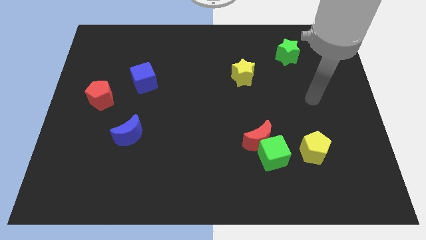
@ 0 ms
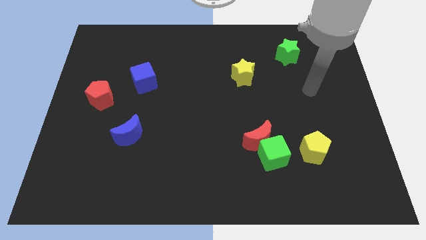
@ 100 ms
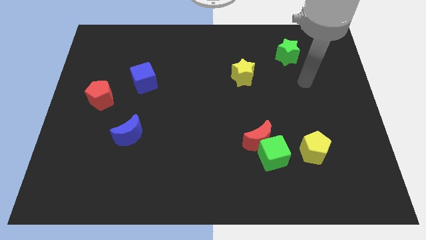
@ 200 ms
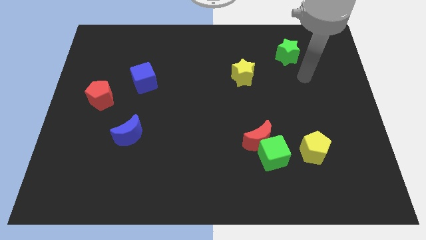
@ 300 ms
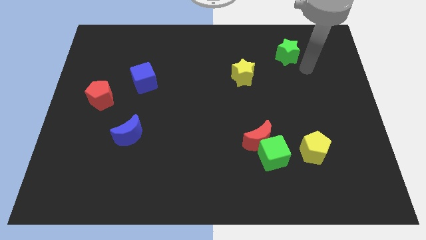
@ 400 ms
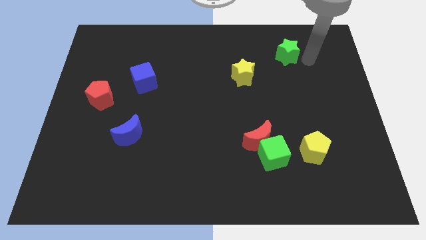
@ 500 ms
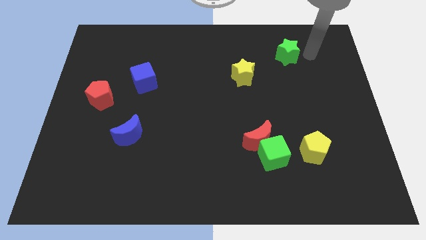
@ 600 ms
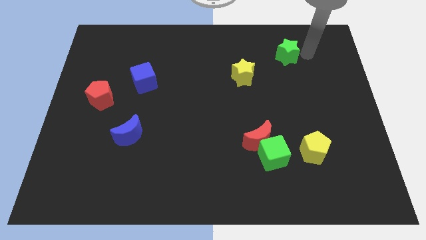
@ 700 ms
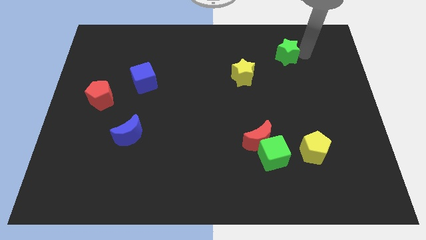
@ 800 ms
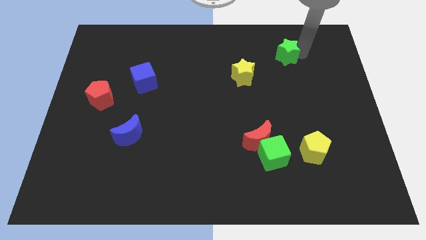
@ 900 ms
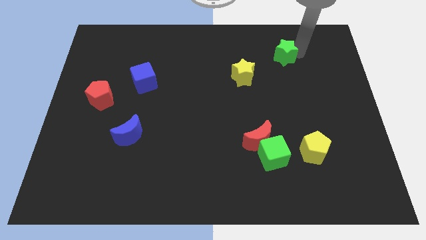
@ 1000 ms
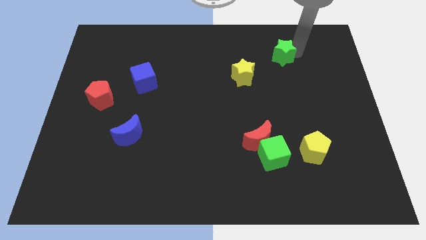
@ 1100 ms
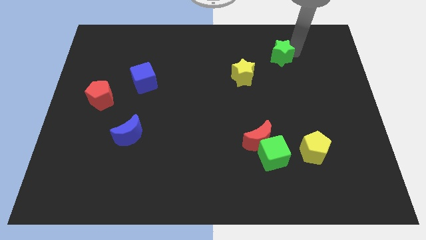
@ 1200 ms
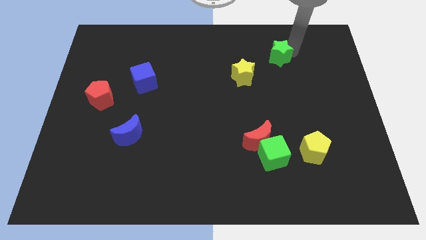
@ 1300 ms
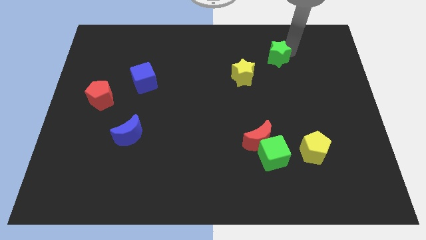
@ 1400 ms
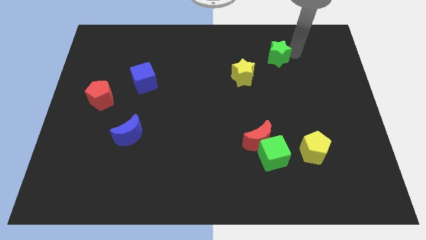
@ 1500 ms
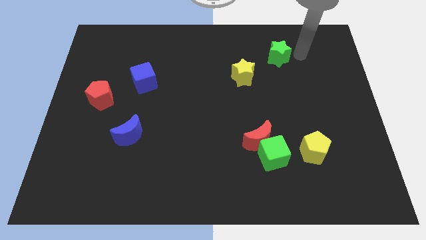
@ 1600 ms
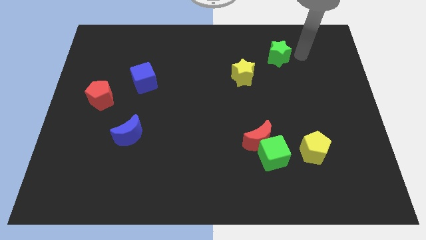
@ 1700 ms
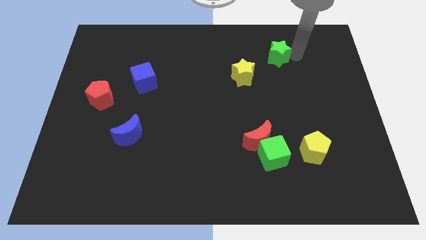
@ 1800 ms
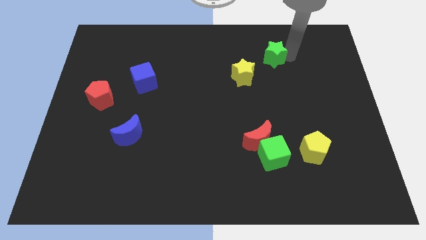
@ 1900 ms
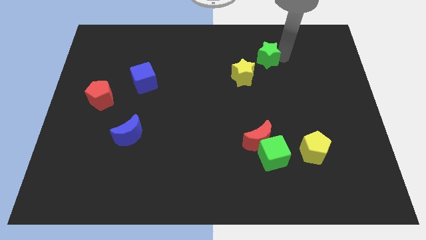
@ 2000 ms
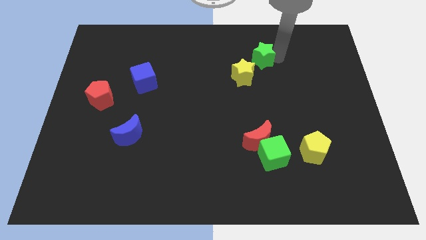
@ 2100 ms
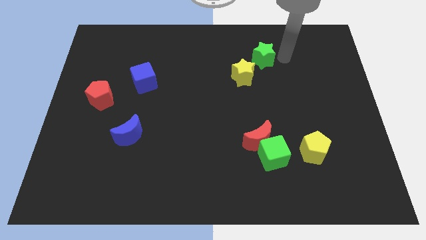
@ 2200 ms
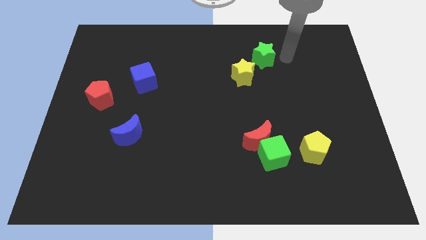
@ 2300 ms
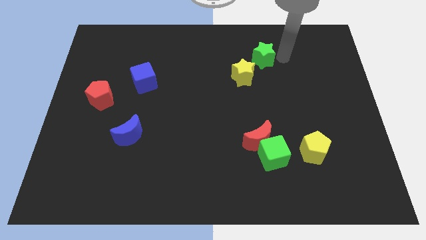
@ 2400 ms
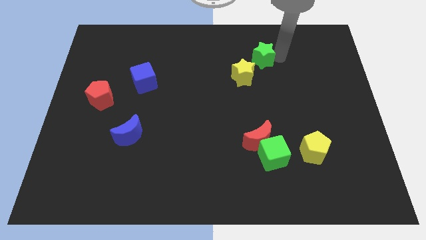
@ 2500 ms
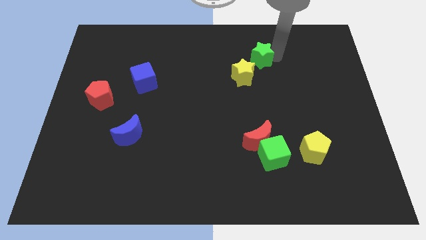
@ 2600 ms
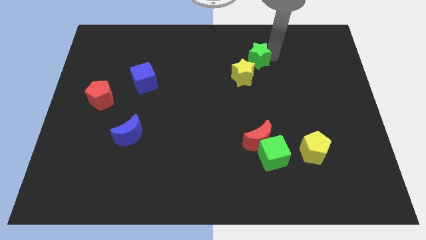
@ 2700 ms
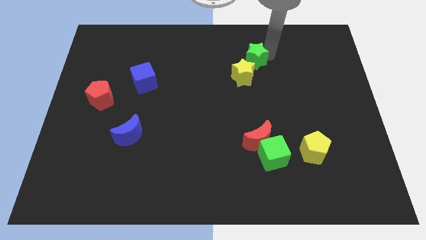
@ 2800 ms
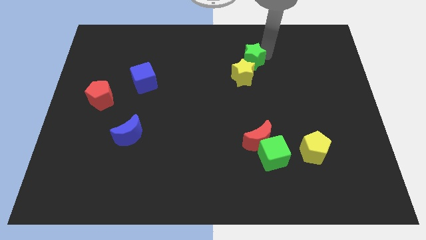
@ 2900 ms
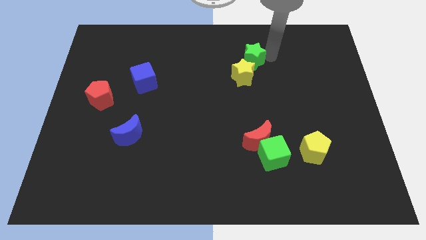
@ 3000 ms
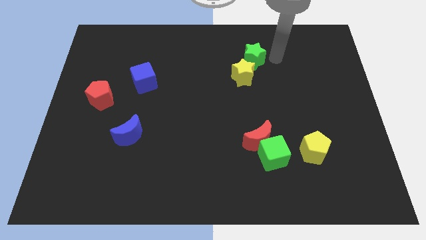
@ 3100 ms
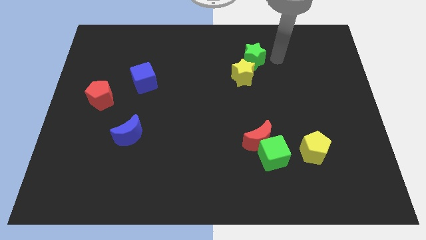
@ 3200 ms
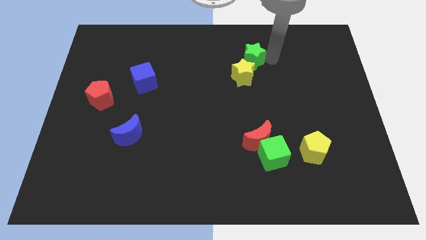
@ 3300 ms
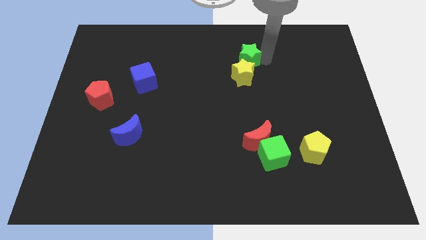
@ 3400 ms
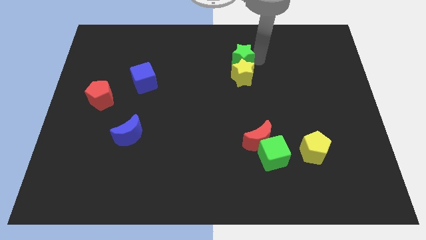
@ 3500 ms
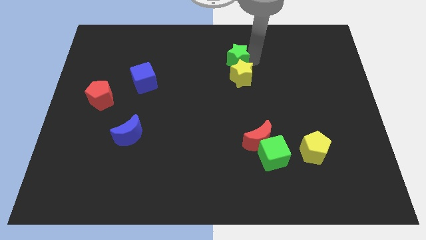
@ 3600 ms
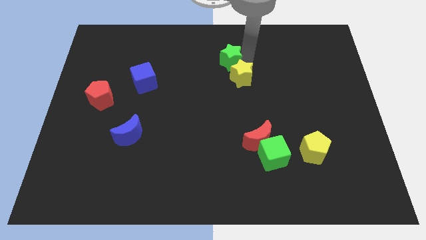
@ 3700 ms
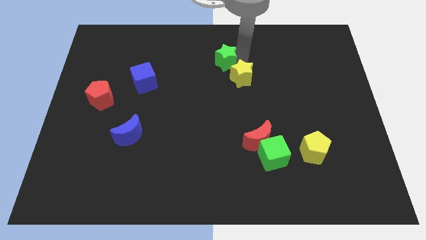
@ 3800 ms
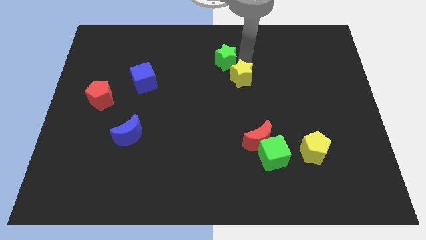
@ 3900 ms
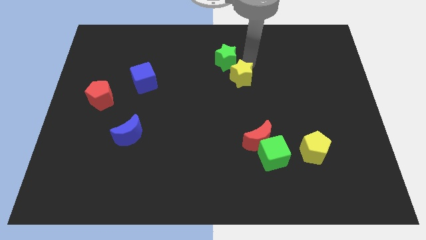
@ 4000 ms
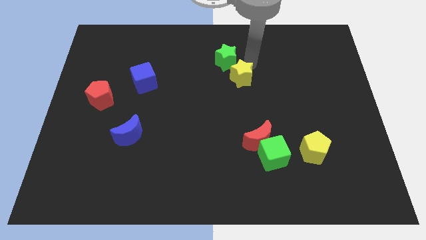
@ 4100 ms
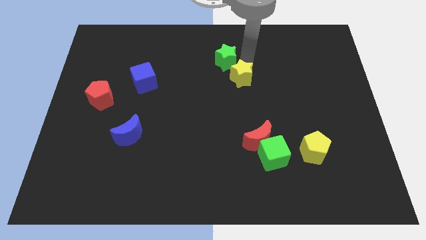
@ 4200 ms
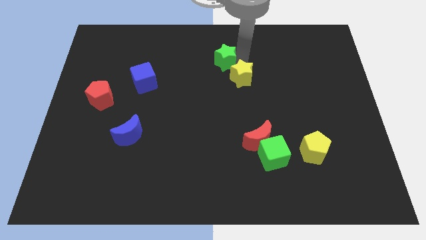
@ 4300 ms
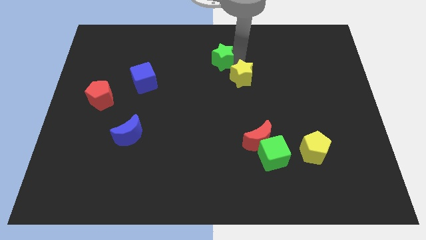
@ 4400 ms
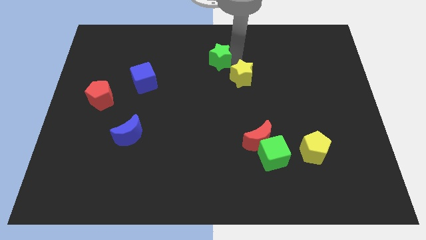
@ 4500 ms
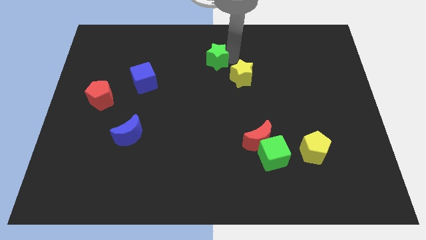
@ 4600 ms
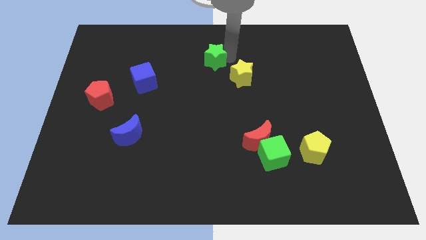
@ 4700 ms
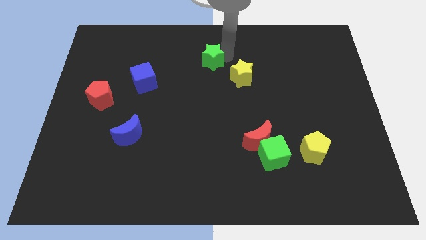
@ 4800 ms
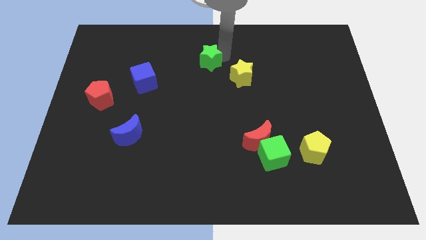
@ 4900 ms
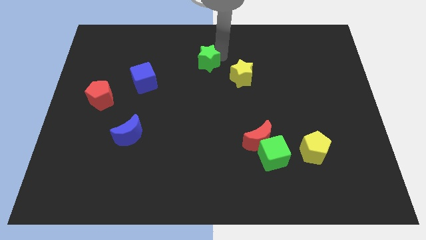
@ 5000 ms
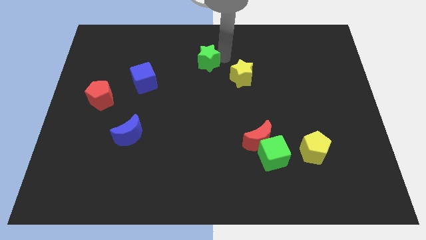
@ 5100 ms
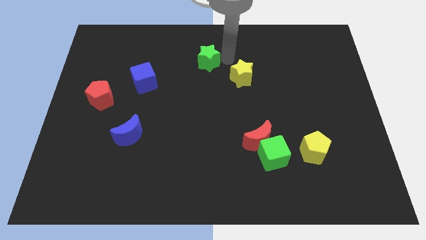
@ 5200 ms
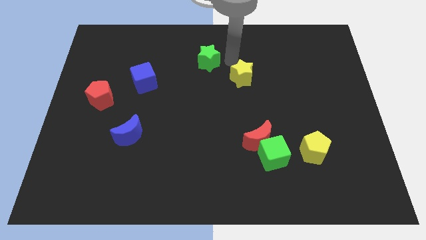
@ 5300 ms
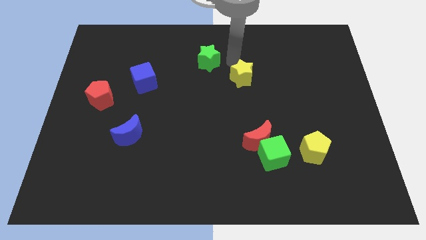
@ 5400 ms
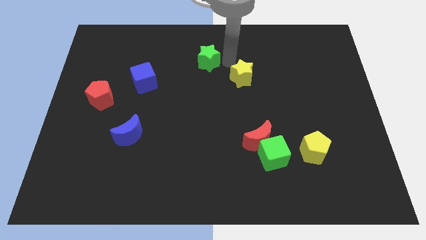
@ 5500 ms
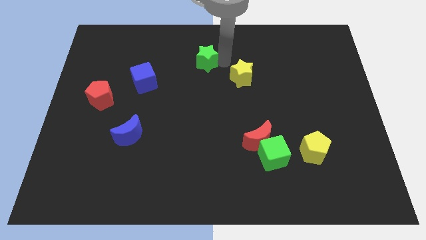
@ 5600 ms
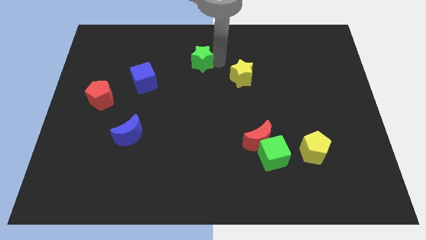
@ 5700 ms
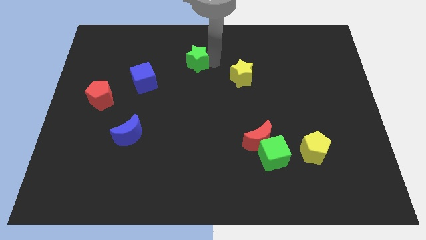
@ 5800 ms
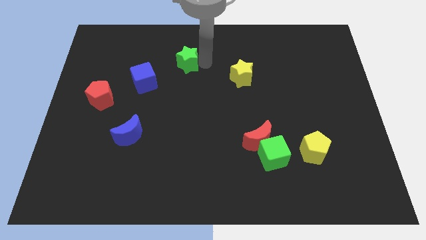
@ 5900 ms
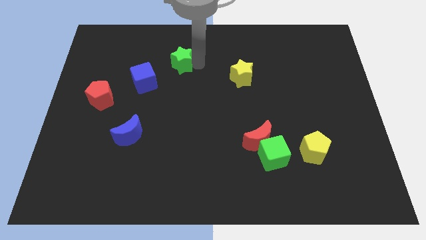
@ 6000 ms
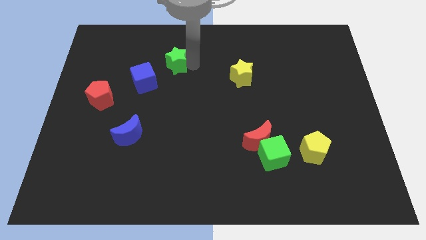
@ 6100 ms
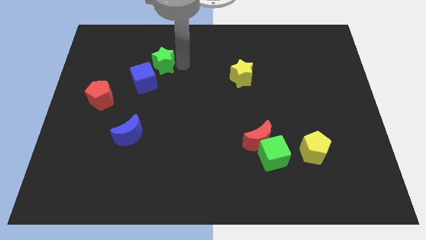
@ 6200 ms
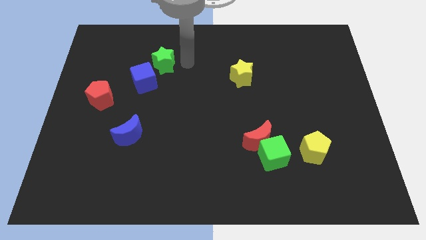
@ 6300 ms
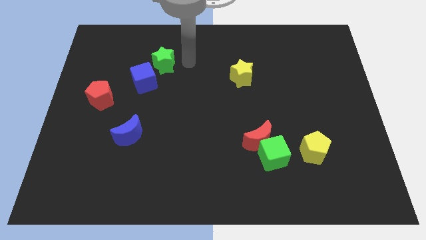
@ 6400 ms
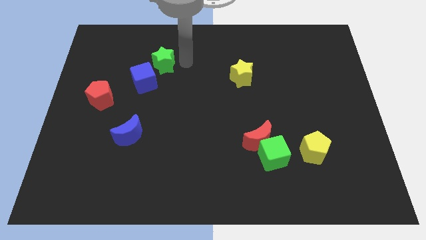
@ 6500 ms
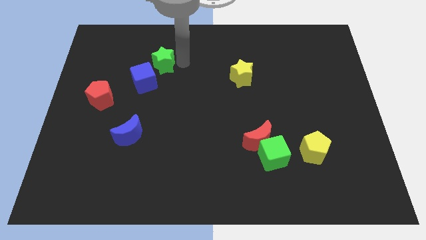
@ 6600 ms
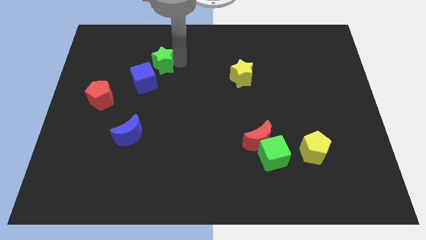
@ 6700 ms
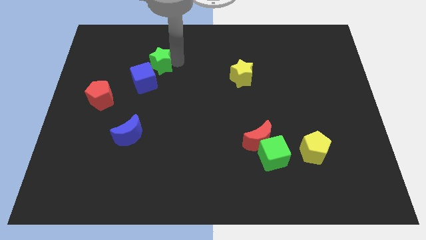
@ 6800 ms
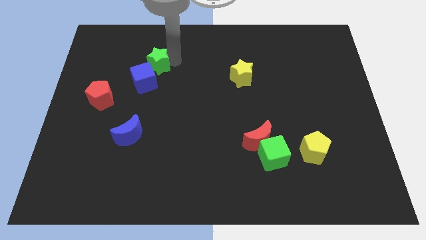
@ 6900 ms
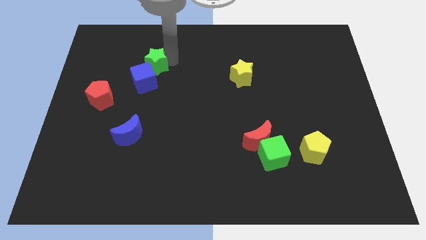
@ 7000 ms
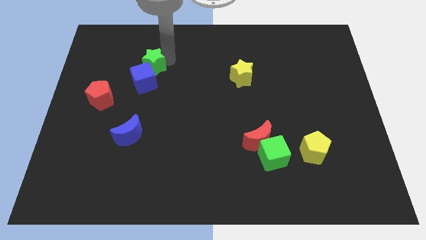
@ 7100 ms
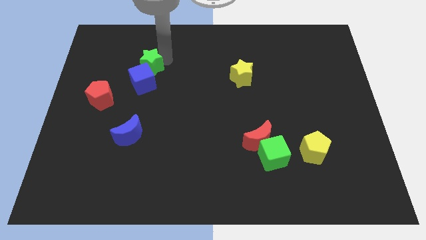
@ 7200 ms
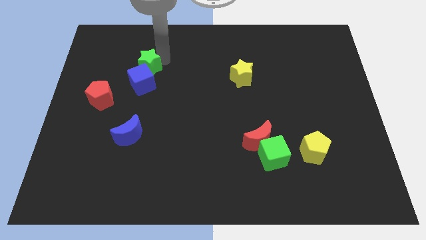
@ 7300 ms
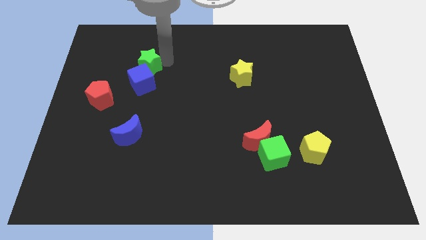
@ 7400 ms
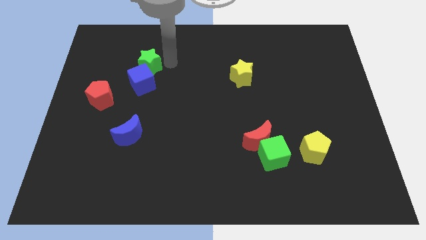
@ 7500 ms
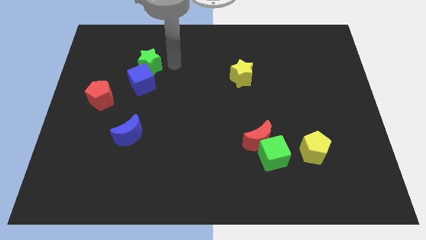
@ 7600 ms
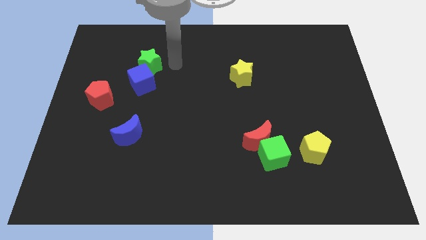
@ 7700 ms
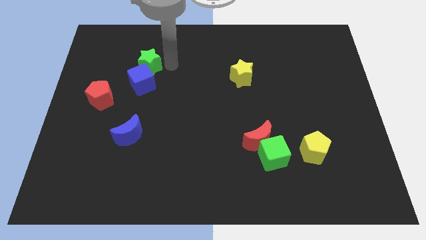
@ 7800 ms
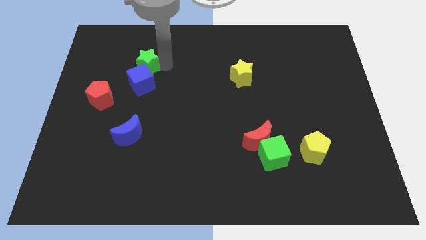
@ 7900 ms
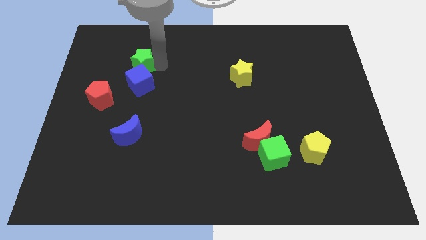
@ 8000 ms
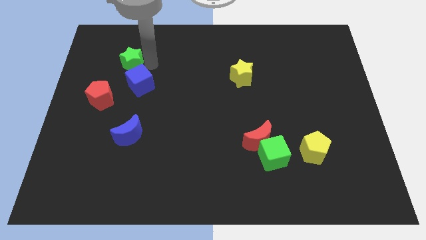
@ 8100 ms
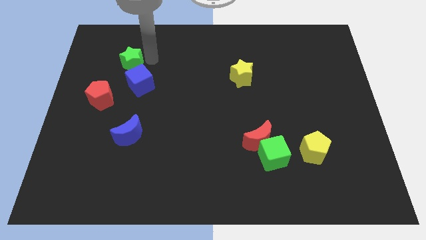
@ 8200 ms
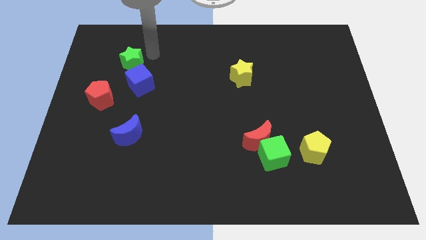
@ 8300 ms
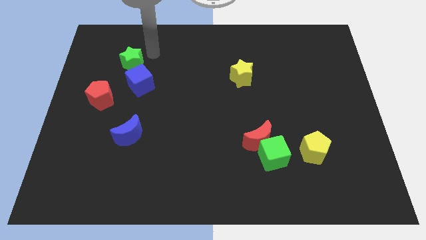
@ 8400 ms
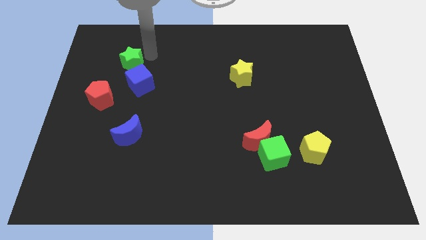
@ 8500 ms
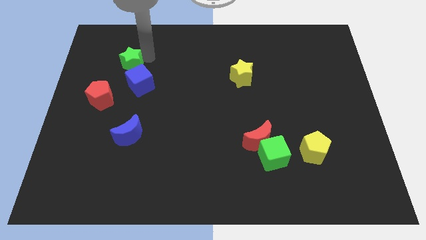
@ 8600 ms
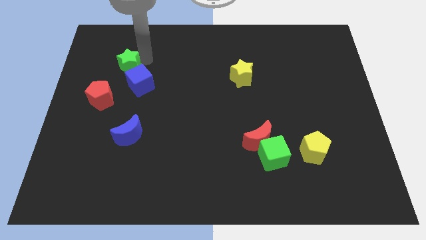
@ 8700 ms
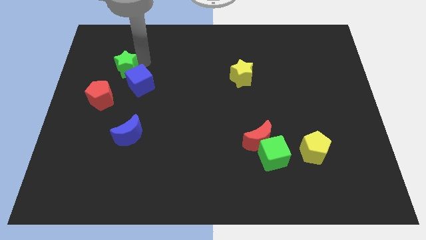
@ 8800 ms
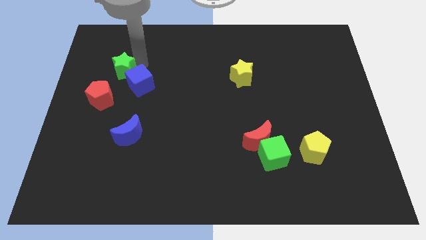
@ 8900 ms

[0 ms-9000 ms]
move the green star just left of the blue cube
